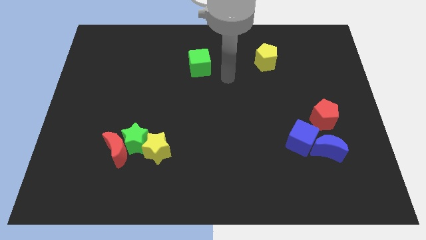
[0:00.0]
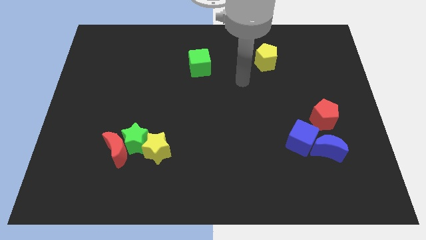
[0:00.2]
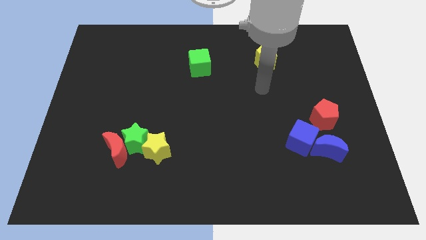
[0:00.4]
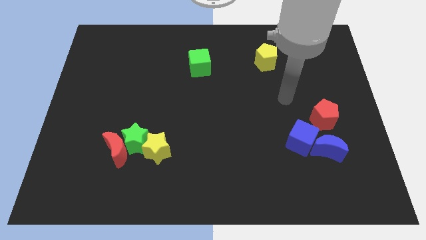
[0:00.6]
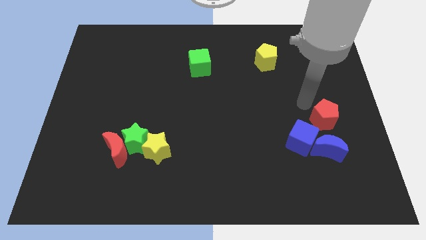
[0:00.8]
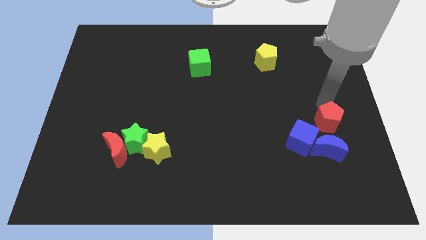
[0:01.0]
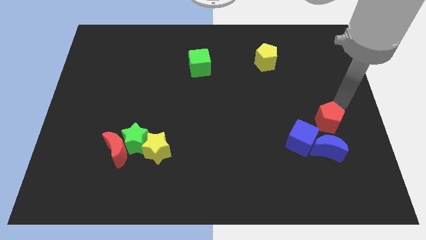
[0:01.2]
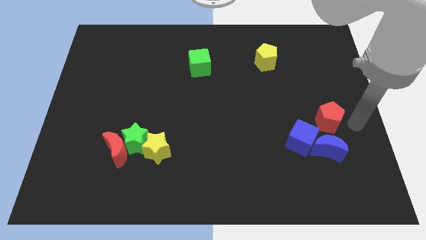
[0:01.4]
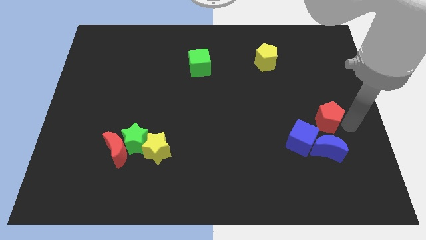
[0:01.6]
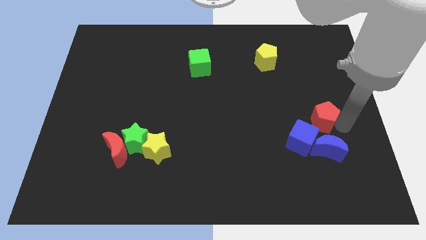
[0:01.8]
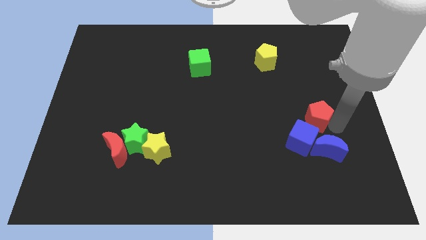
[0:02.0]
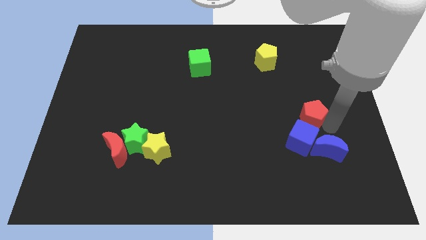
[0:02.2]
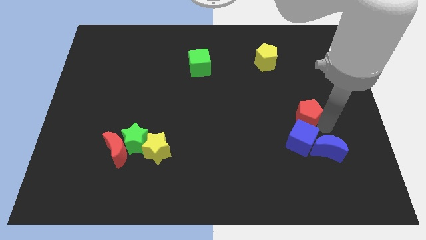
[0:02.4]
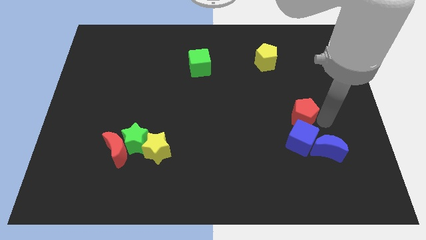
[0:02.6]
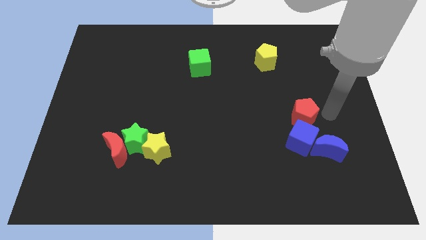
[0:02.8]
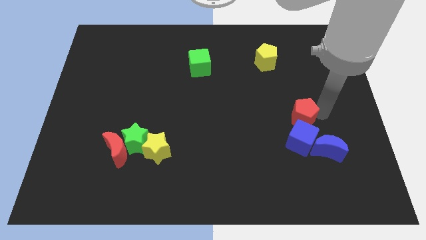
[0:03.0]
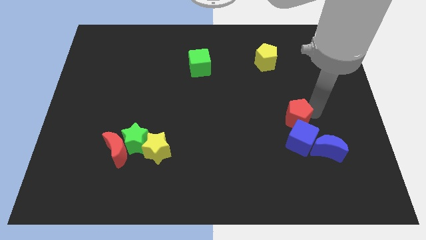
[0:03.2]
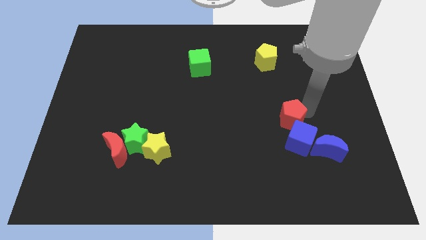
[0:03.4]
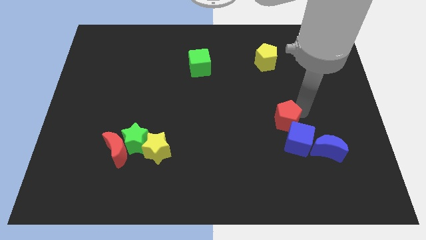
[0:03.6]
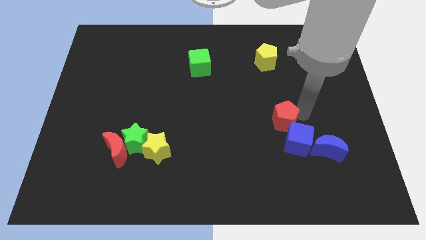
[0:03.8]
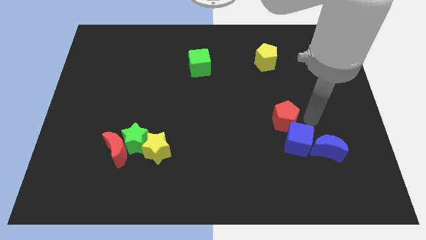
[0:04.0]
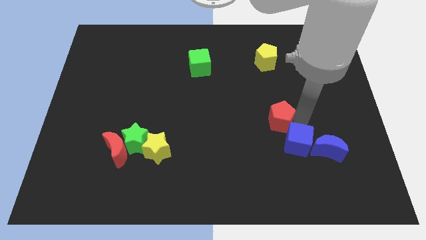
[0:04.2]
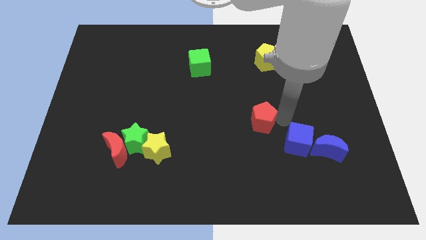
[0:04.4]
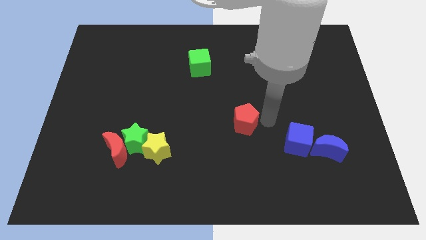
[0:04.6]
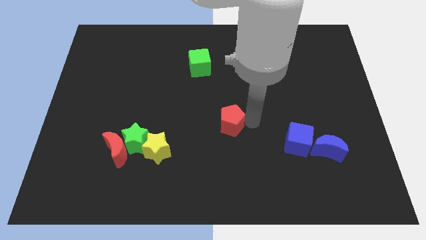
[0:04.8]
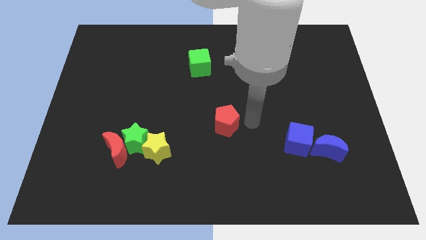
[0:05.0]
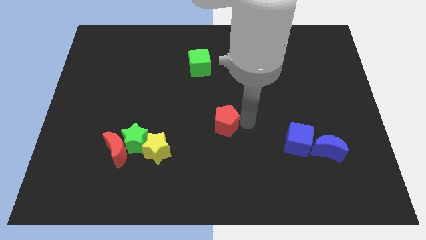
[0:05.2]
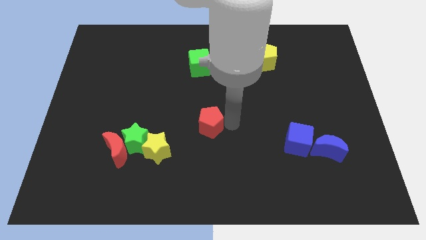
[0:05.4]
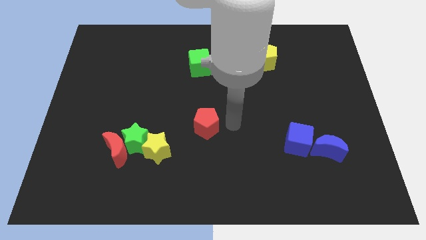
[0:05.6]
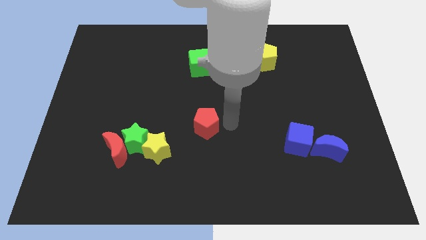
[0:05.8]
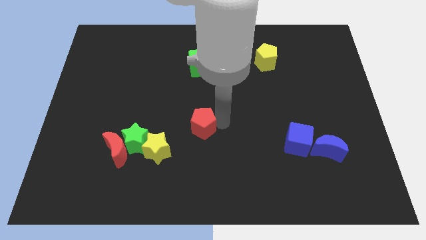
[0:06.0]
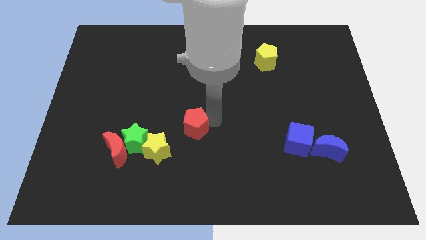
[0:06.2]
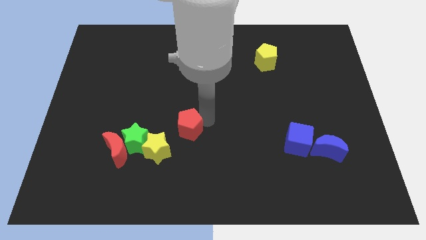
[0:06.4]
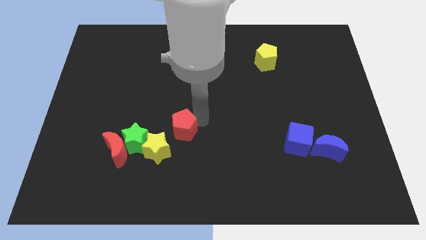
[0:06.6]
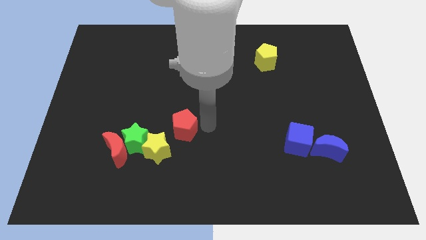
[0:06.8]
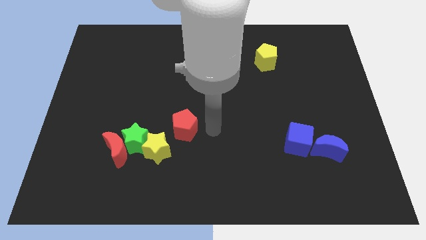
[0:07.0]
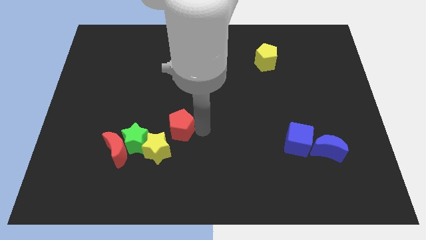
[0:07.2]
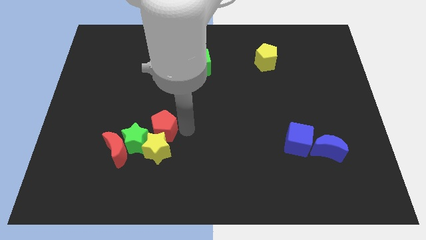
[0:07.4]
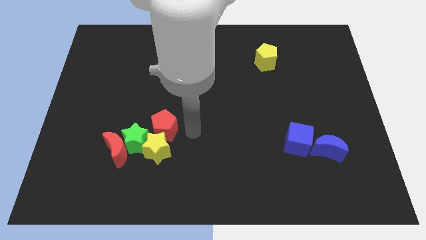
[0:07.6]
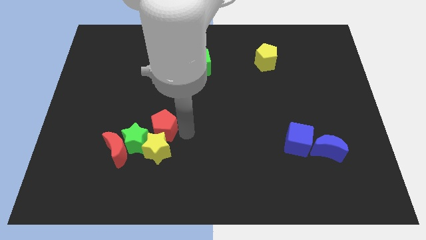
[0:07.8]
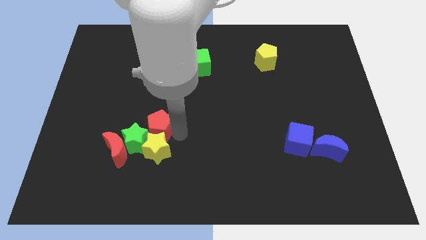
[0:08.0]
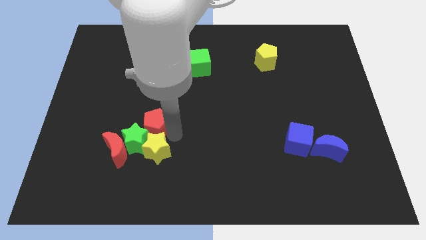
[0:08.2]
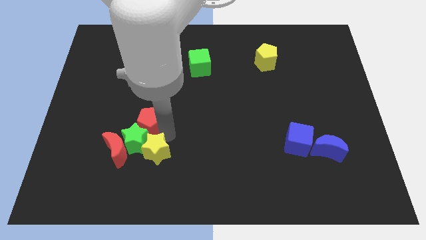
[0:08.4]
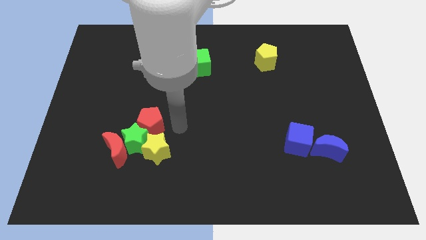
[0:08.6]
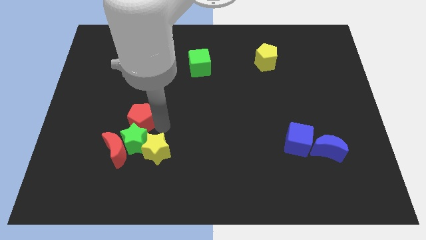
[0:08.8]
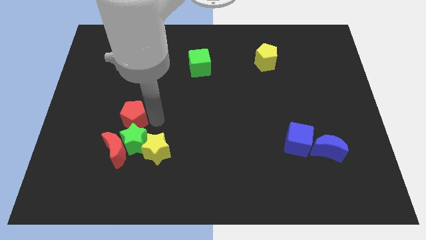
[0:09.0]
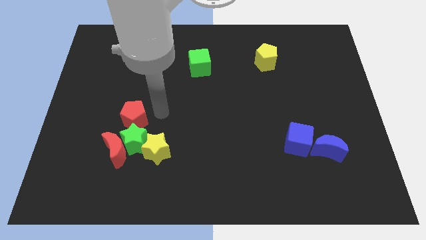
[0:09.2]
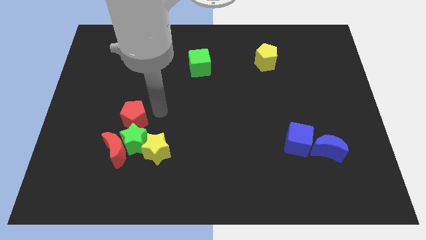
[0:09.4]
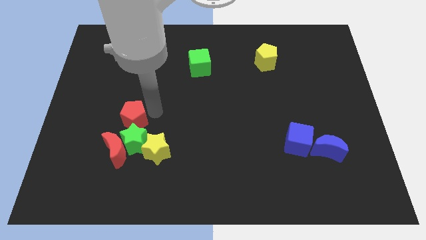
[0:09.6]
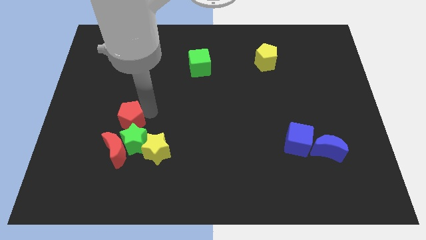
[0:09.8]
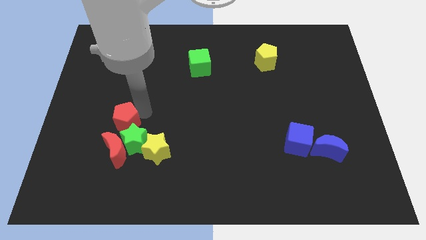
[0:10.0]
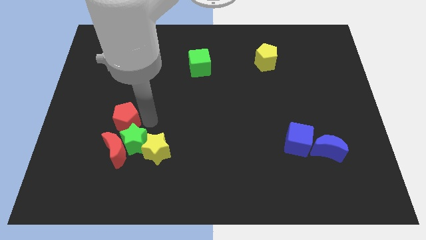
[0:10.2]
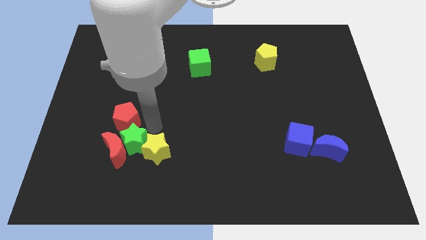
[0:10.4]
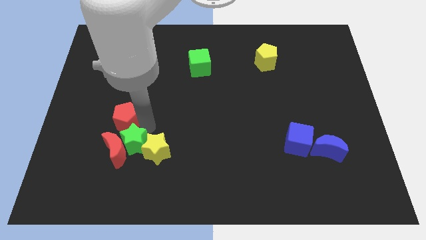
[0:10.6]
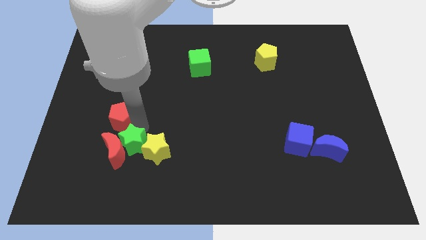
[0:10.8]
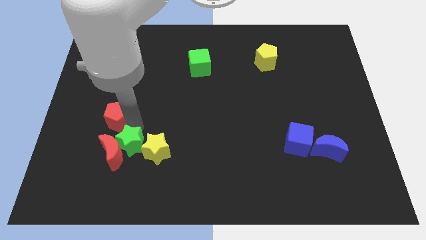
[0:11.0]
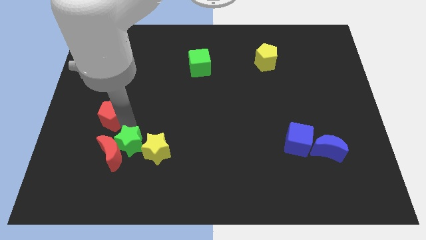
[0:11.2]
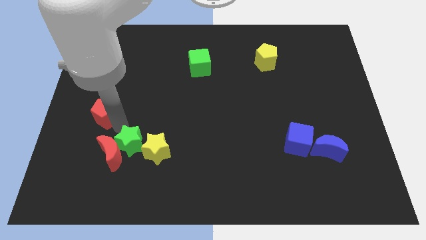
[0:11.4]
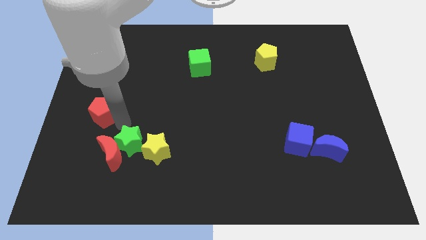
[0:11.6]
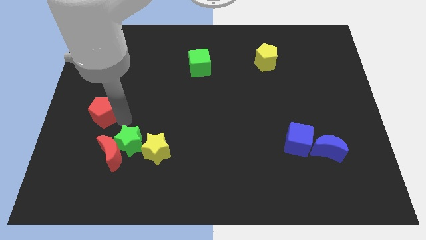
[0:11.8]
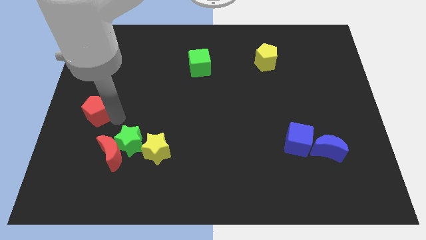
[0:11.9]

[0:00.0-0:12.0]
push the red pentagon to the left side of the board
